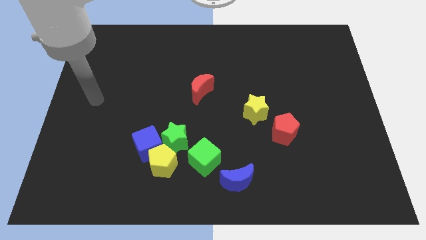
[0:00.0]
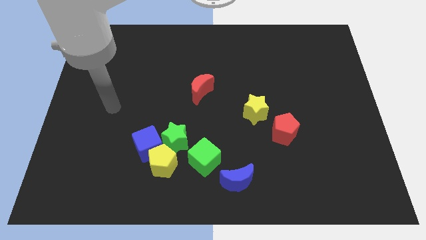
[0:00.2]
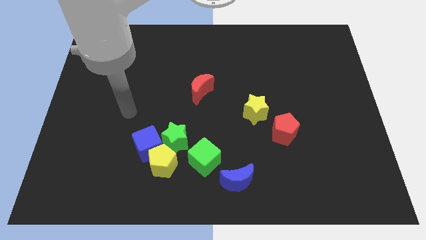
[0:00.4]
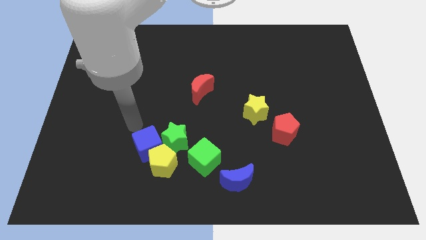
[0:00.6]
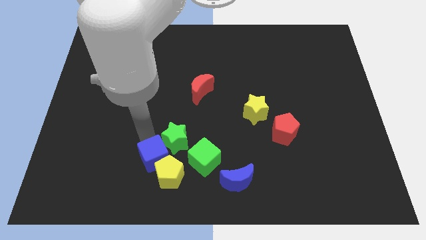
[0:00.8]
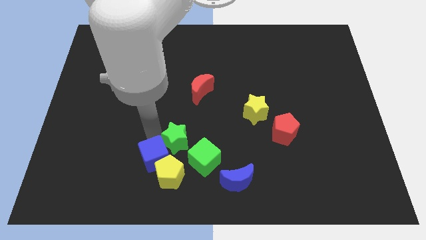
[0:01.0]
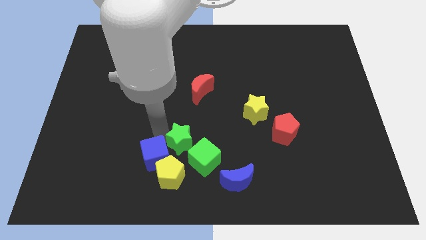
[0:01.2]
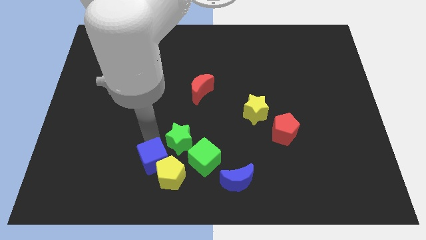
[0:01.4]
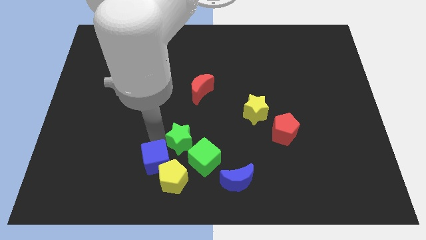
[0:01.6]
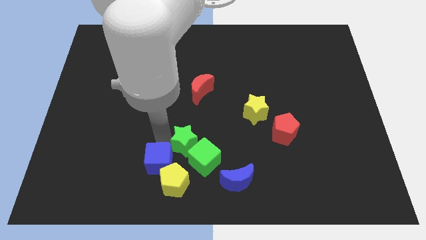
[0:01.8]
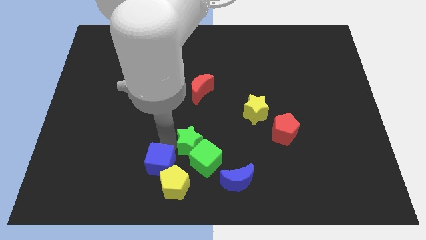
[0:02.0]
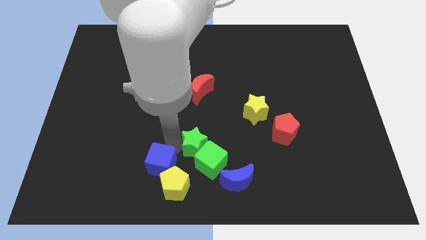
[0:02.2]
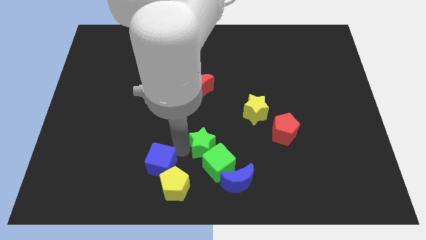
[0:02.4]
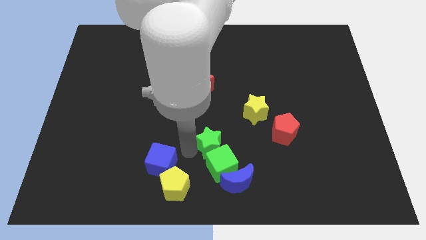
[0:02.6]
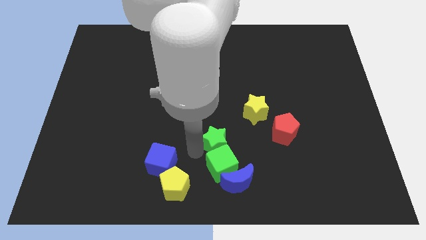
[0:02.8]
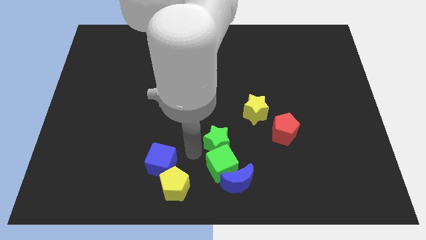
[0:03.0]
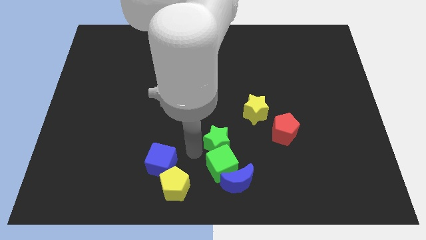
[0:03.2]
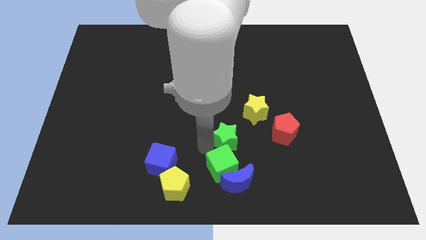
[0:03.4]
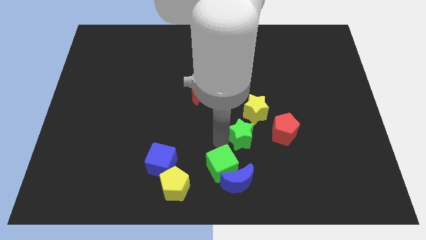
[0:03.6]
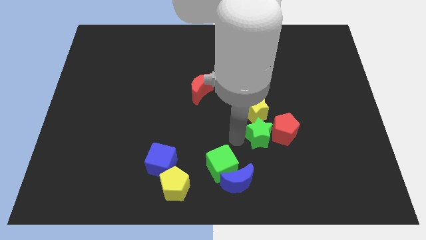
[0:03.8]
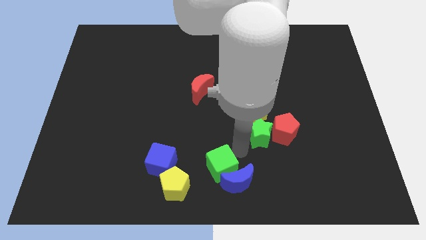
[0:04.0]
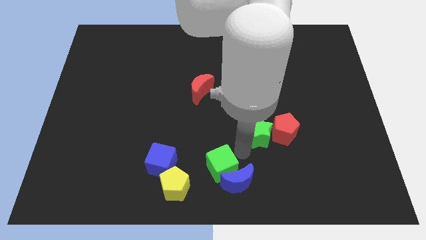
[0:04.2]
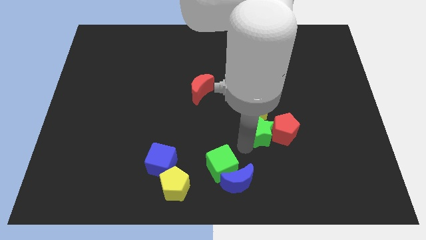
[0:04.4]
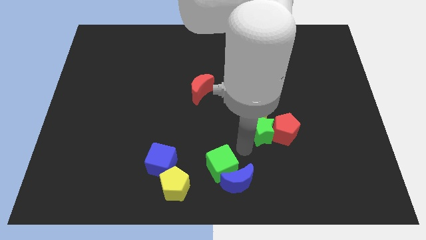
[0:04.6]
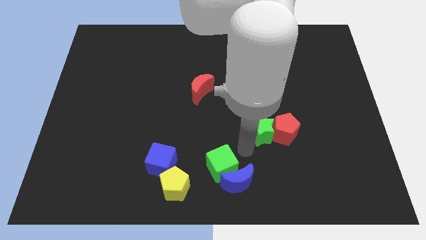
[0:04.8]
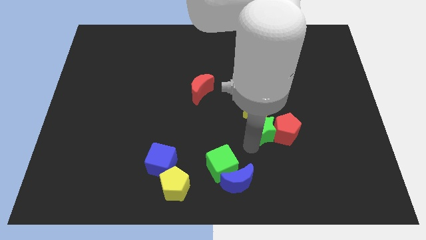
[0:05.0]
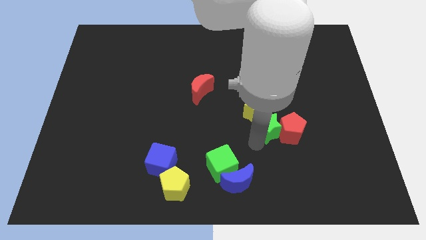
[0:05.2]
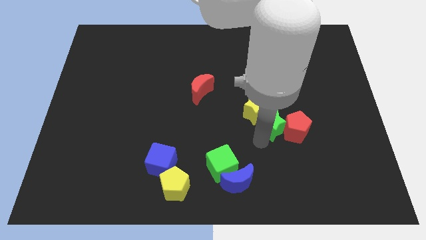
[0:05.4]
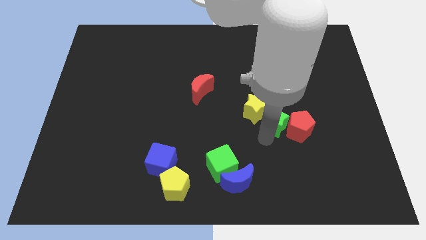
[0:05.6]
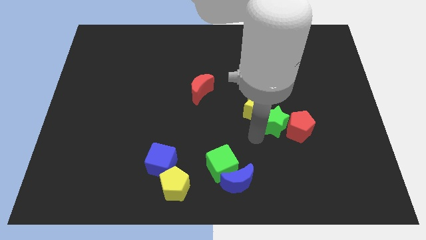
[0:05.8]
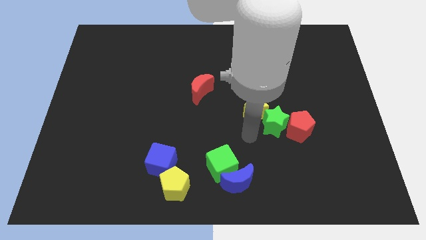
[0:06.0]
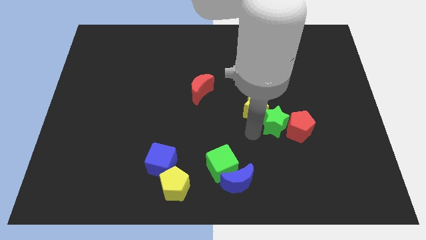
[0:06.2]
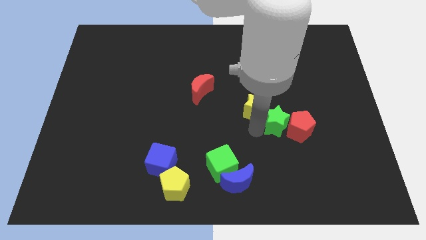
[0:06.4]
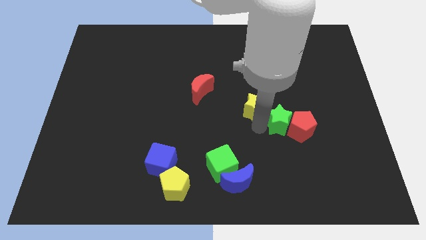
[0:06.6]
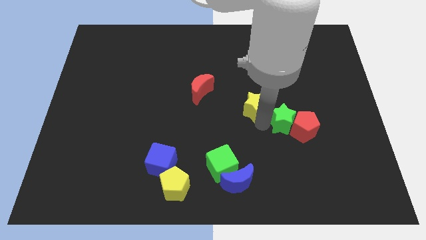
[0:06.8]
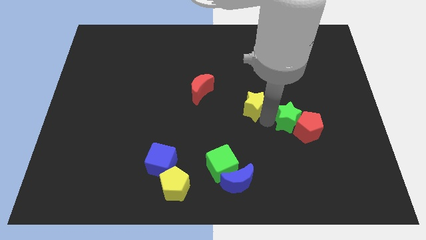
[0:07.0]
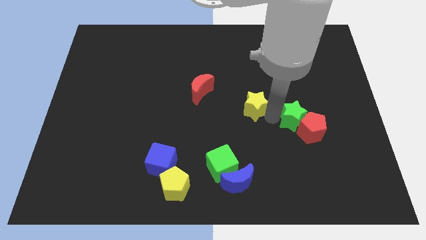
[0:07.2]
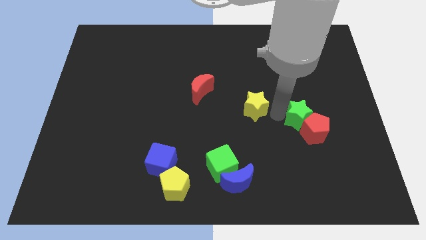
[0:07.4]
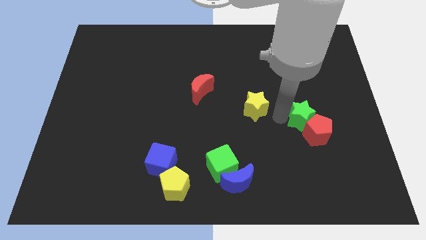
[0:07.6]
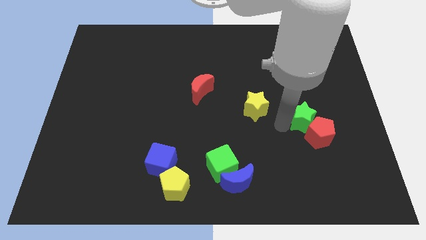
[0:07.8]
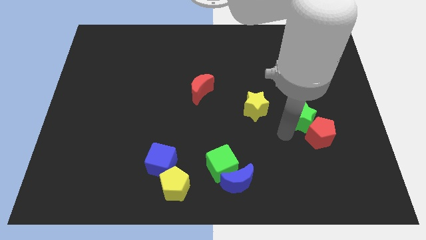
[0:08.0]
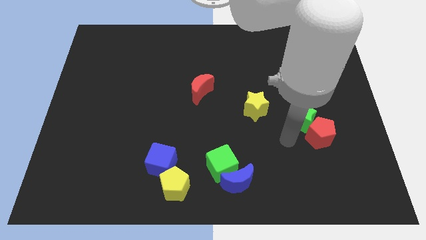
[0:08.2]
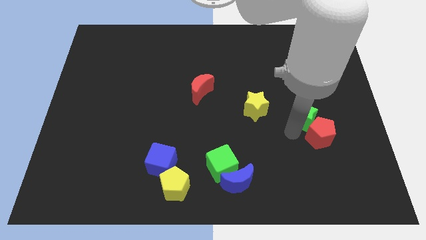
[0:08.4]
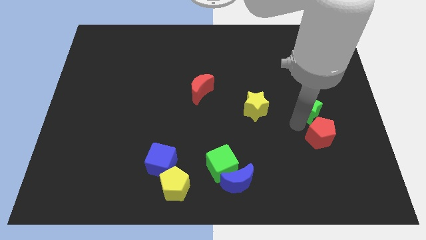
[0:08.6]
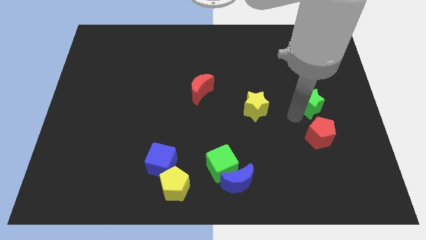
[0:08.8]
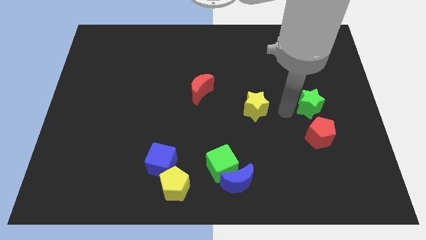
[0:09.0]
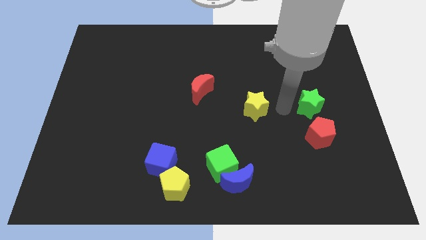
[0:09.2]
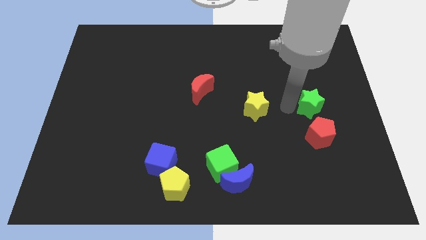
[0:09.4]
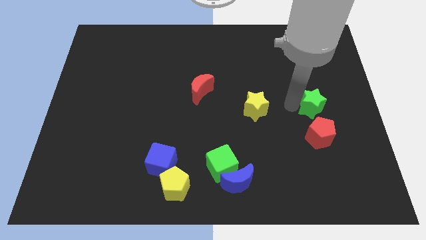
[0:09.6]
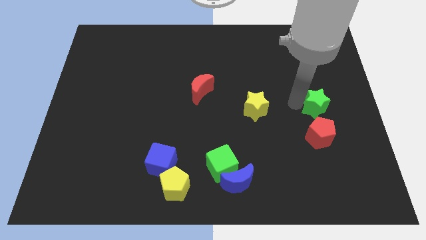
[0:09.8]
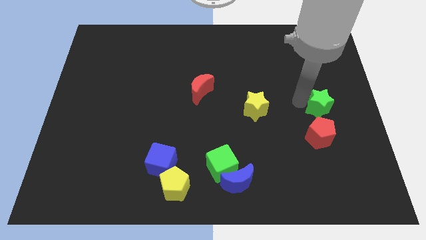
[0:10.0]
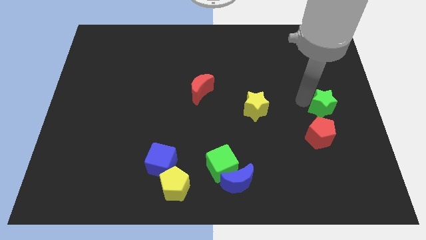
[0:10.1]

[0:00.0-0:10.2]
put the green star to the center right

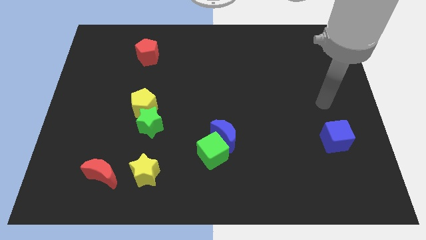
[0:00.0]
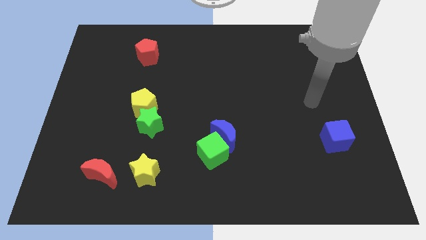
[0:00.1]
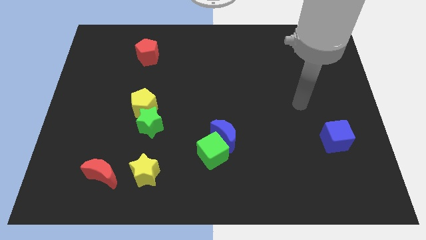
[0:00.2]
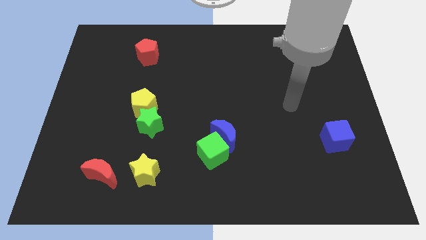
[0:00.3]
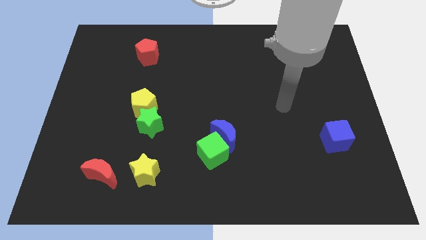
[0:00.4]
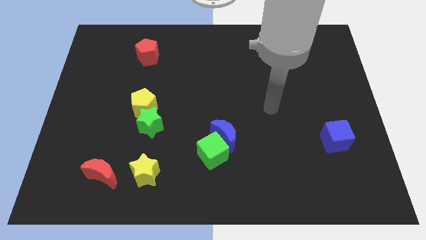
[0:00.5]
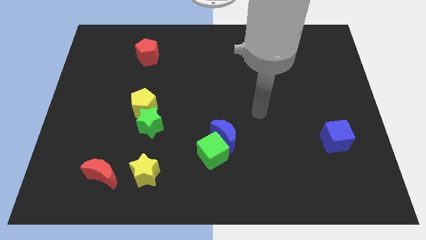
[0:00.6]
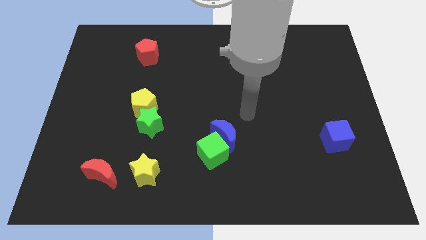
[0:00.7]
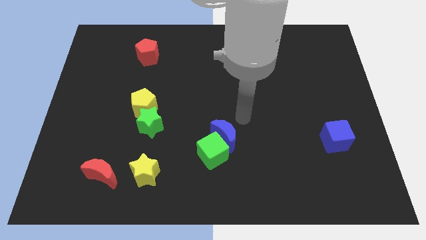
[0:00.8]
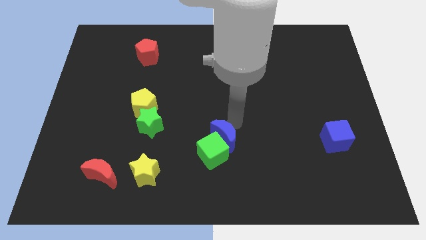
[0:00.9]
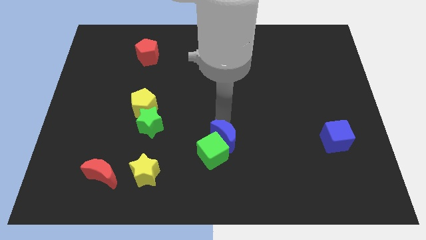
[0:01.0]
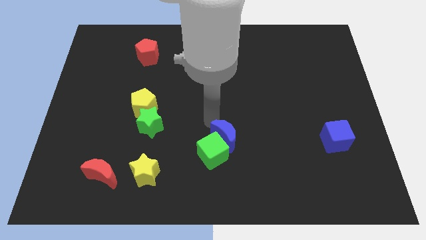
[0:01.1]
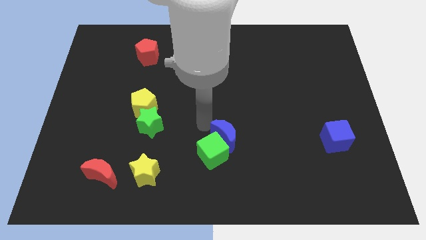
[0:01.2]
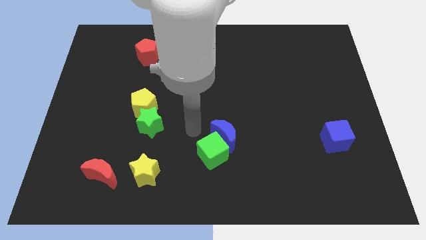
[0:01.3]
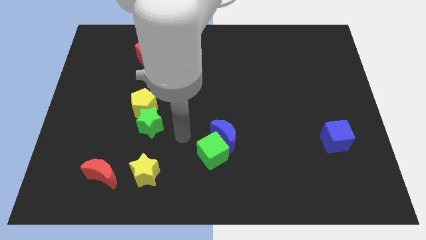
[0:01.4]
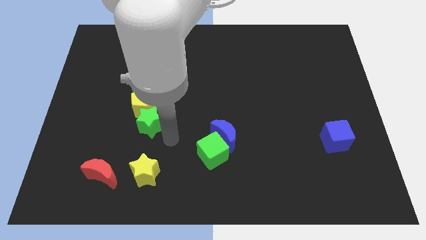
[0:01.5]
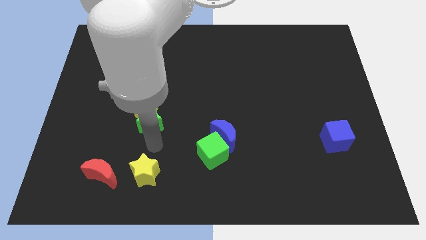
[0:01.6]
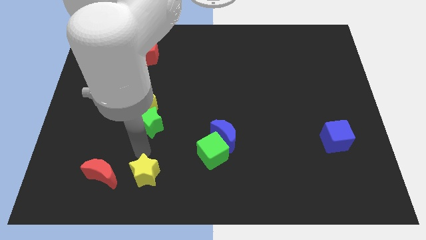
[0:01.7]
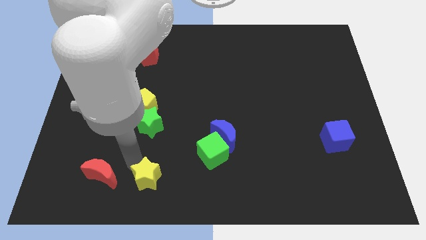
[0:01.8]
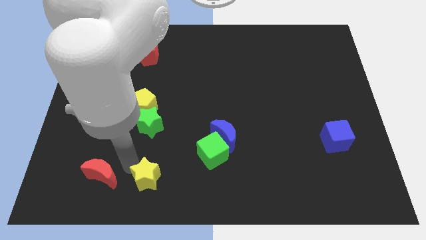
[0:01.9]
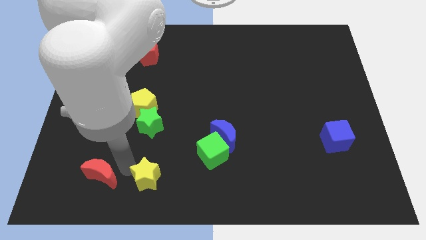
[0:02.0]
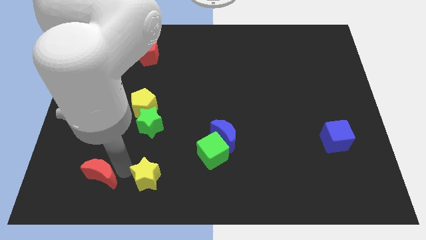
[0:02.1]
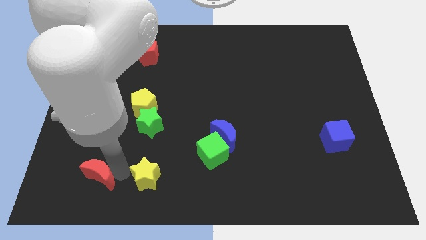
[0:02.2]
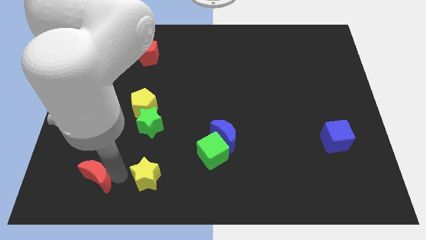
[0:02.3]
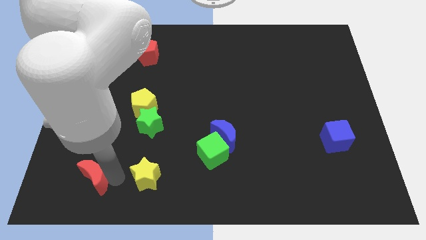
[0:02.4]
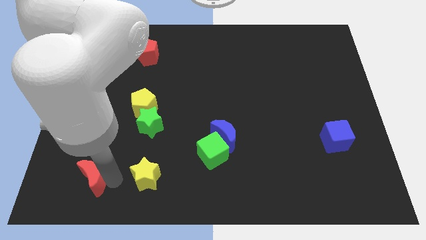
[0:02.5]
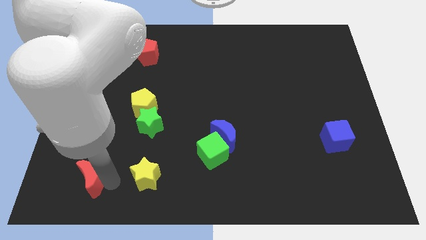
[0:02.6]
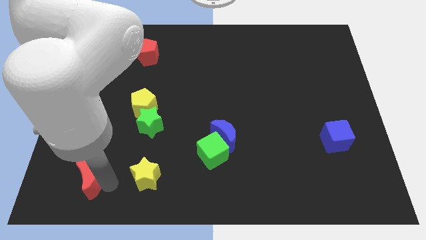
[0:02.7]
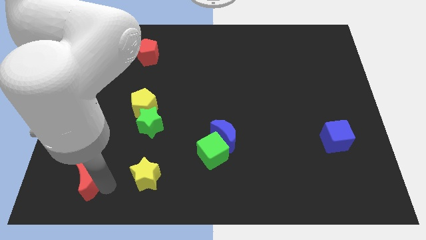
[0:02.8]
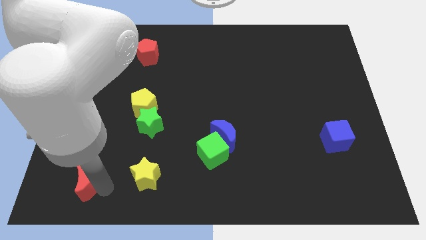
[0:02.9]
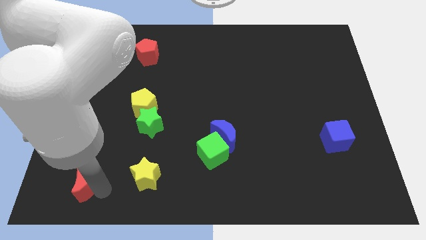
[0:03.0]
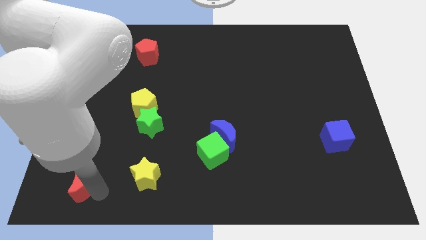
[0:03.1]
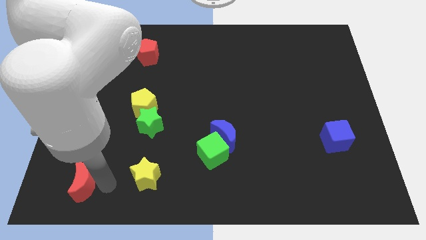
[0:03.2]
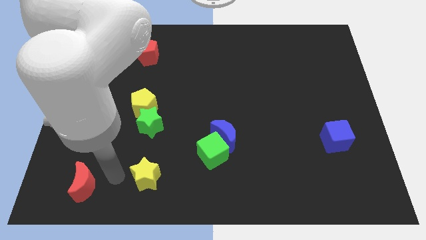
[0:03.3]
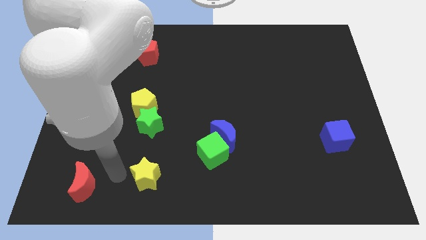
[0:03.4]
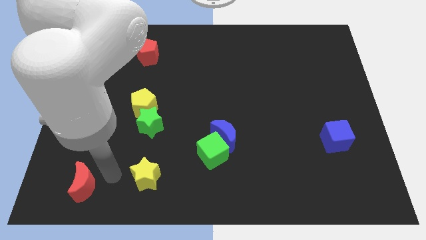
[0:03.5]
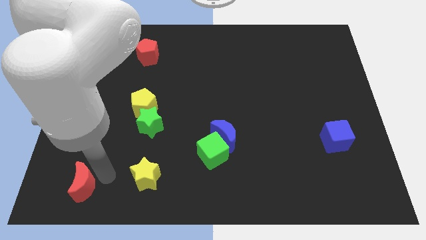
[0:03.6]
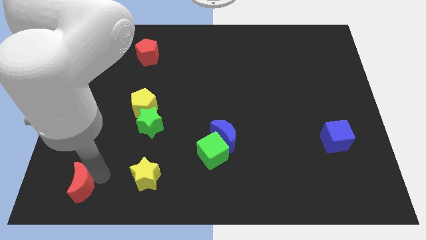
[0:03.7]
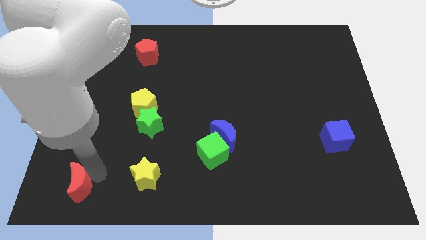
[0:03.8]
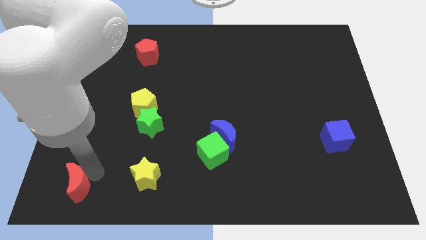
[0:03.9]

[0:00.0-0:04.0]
slide the red moon to the bottom left corner
